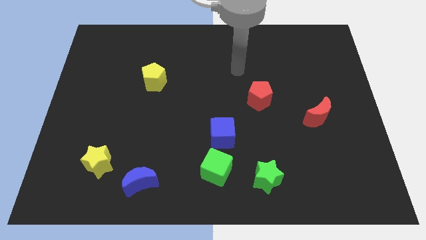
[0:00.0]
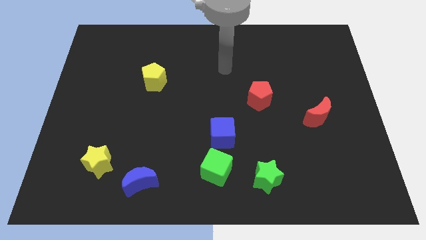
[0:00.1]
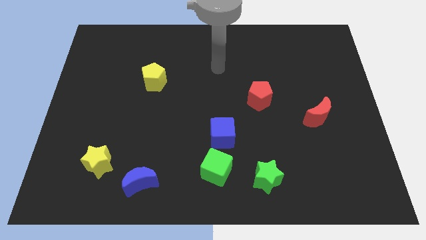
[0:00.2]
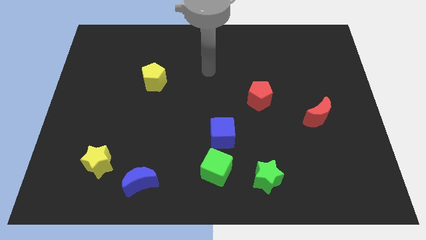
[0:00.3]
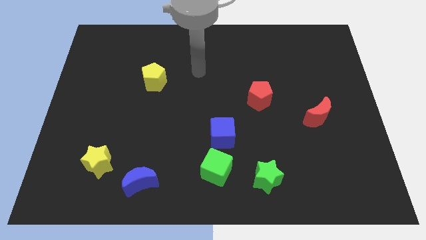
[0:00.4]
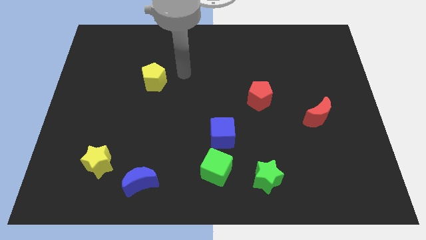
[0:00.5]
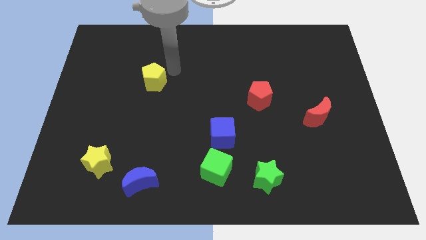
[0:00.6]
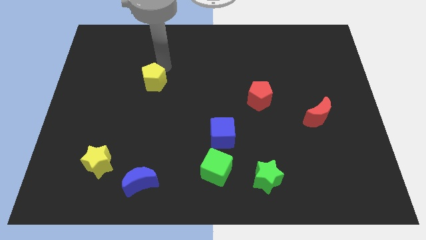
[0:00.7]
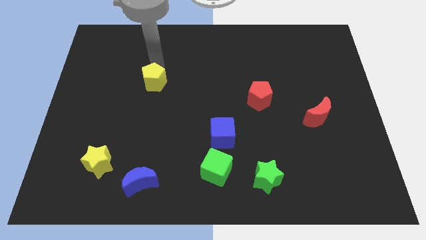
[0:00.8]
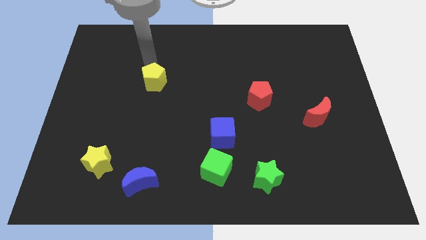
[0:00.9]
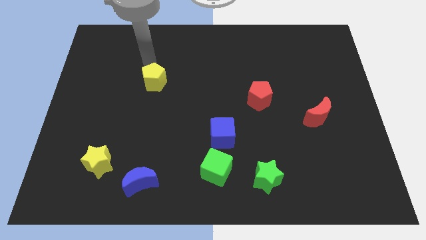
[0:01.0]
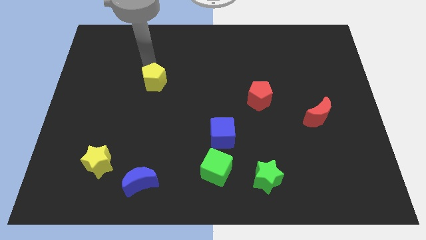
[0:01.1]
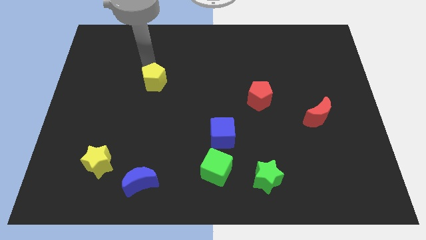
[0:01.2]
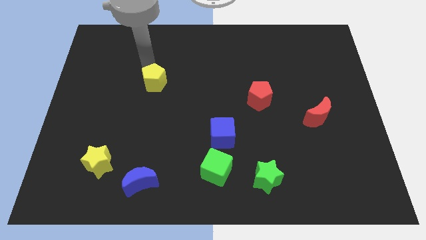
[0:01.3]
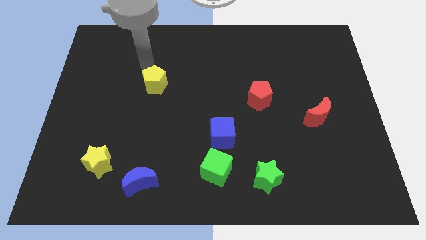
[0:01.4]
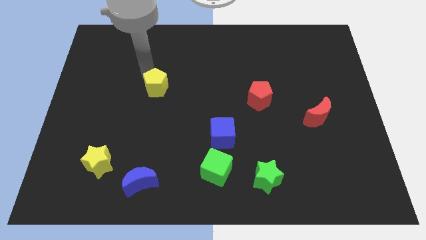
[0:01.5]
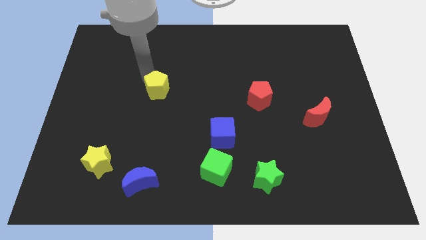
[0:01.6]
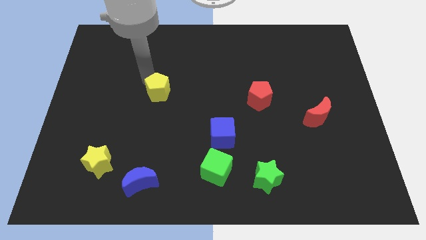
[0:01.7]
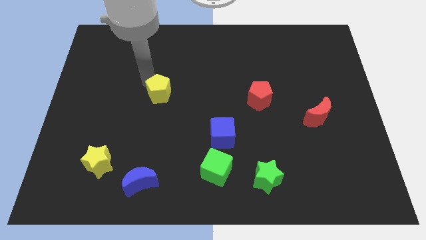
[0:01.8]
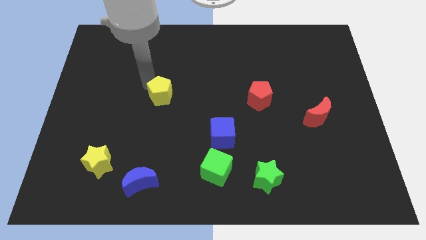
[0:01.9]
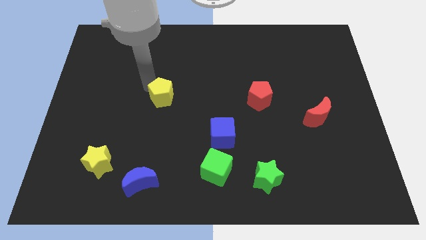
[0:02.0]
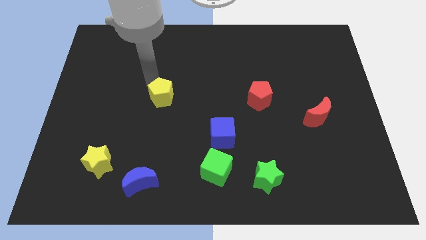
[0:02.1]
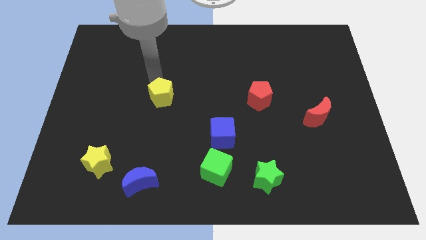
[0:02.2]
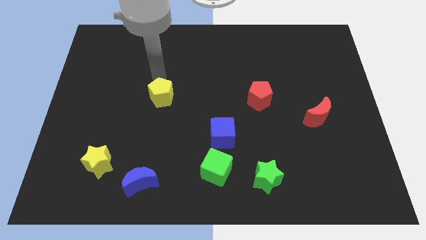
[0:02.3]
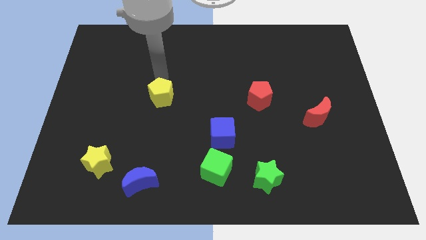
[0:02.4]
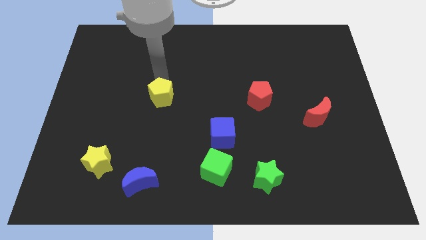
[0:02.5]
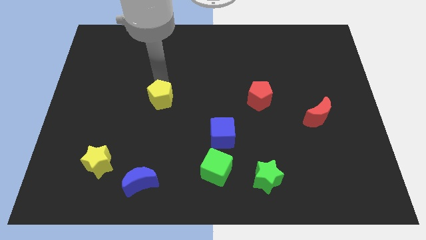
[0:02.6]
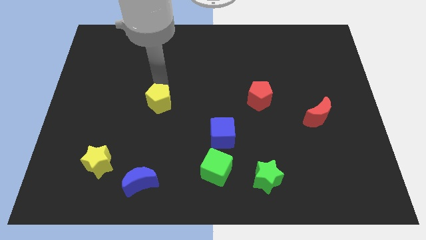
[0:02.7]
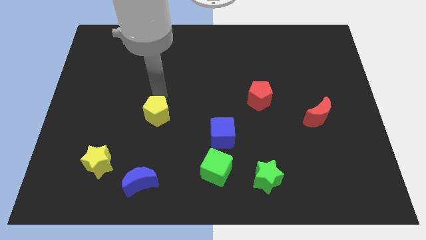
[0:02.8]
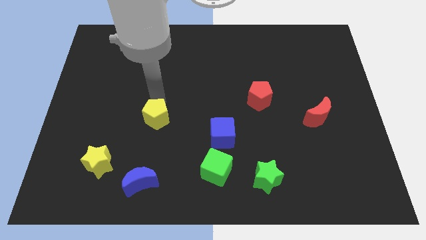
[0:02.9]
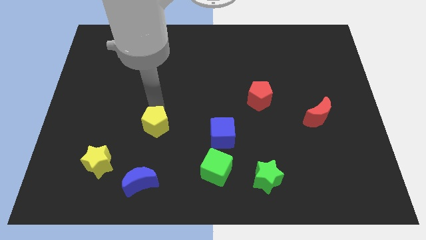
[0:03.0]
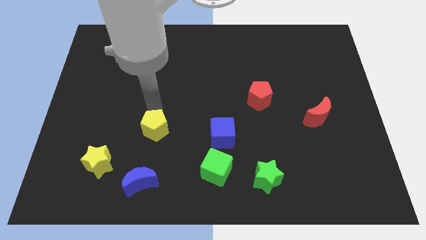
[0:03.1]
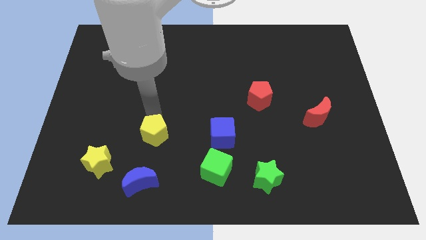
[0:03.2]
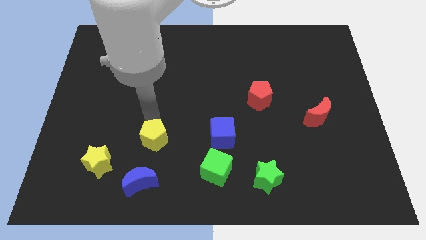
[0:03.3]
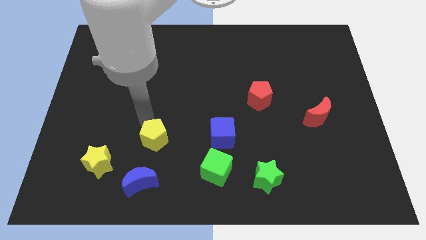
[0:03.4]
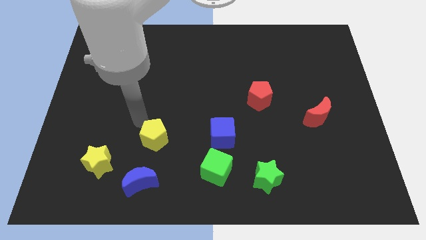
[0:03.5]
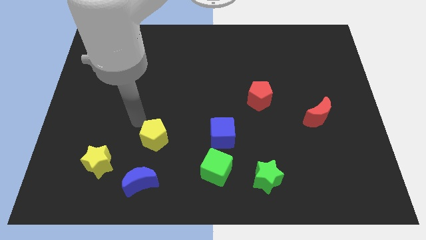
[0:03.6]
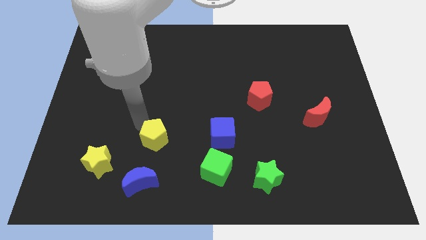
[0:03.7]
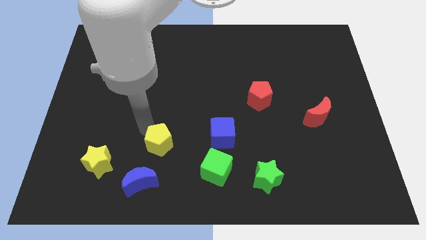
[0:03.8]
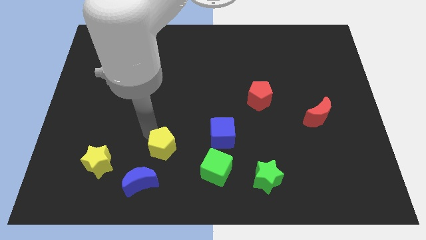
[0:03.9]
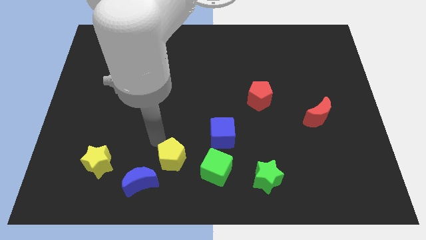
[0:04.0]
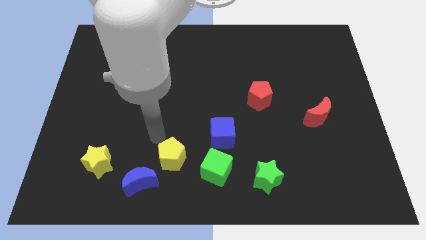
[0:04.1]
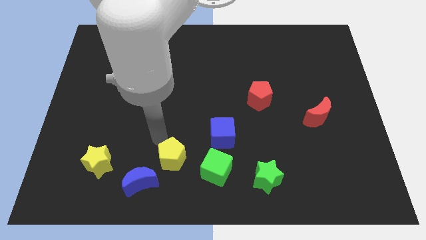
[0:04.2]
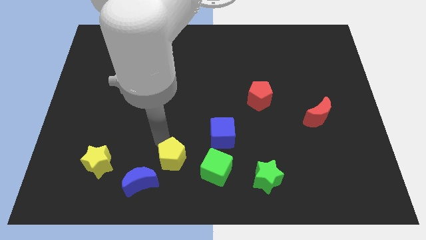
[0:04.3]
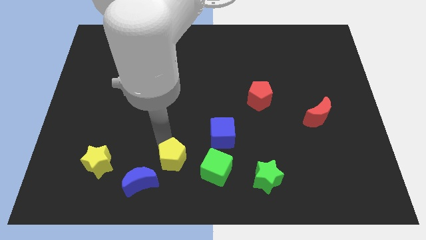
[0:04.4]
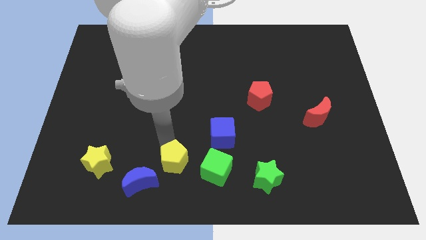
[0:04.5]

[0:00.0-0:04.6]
slide the yellow pentagon just right of the blue moon

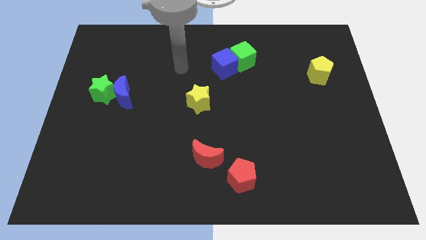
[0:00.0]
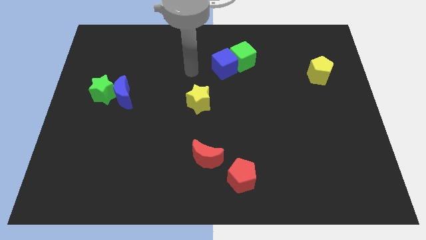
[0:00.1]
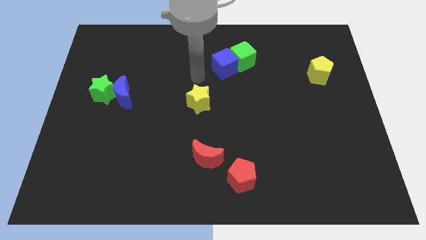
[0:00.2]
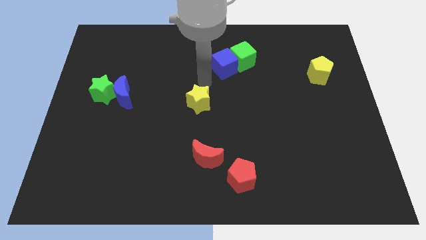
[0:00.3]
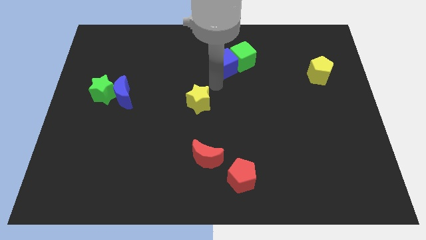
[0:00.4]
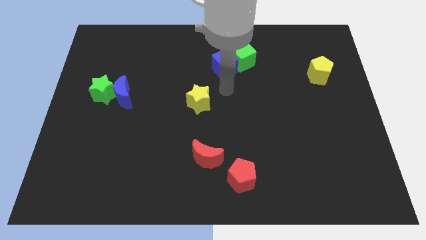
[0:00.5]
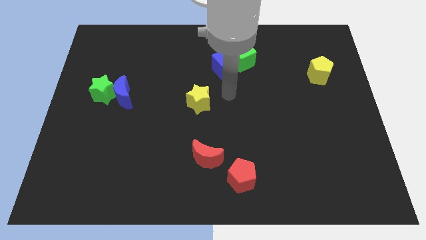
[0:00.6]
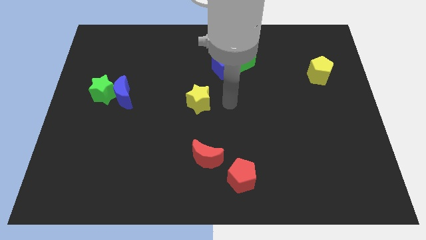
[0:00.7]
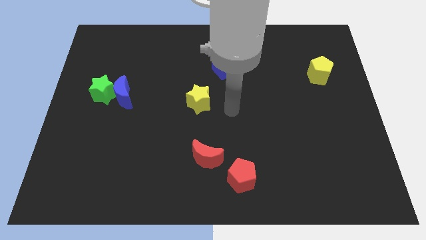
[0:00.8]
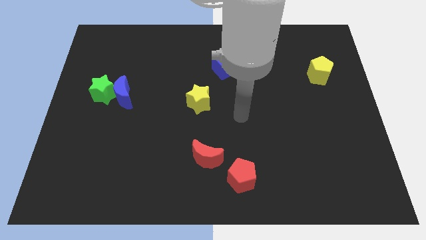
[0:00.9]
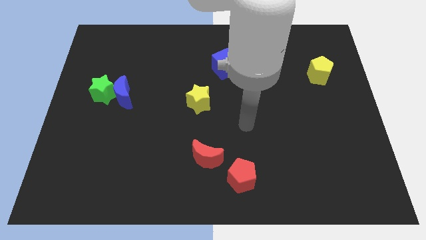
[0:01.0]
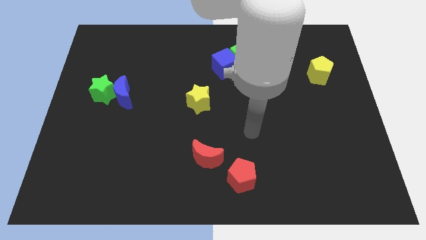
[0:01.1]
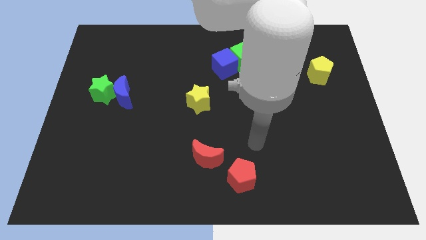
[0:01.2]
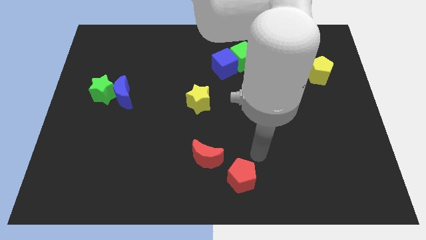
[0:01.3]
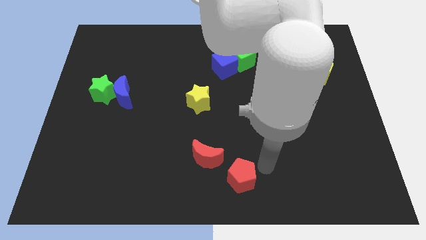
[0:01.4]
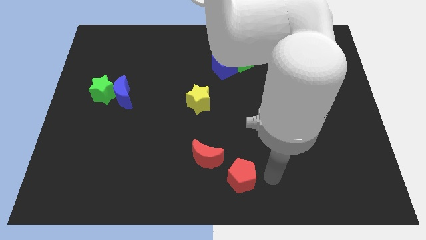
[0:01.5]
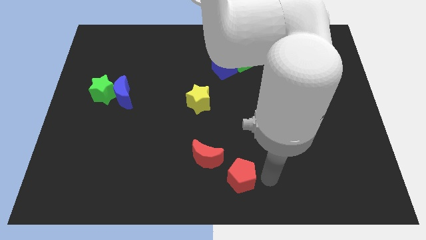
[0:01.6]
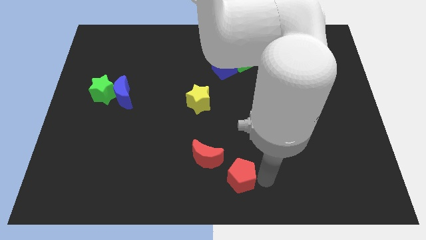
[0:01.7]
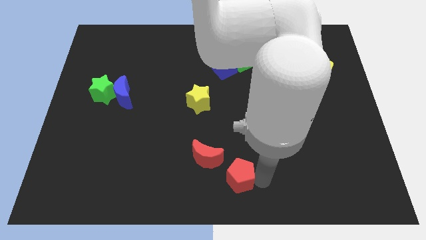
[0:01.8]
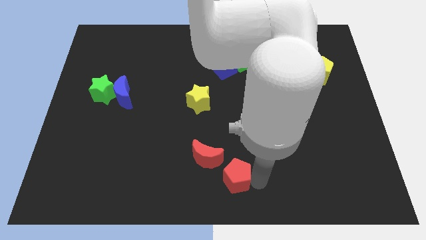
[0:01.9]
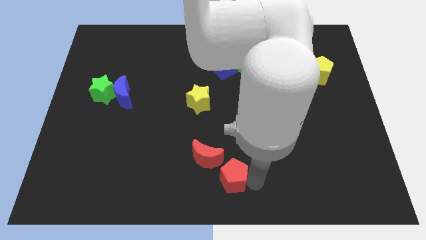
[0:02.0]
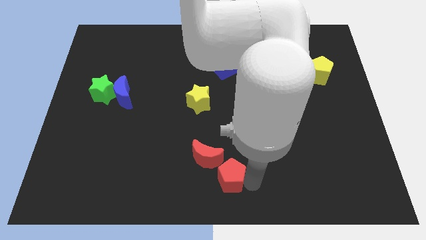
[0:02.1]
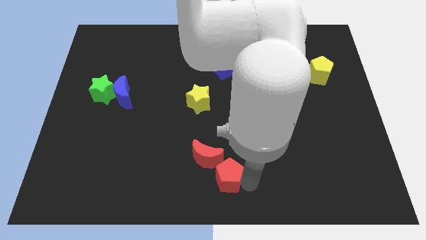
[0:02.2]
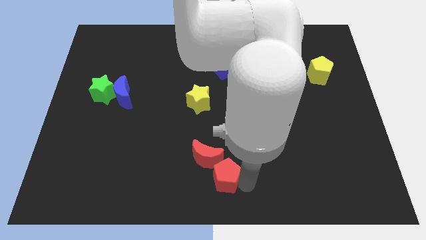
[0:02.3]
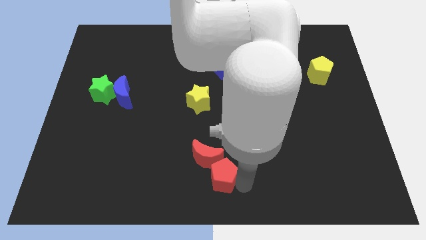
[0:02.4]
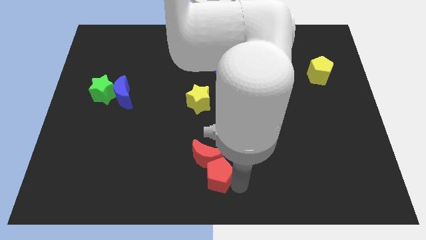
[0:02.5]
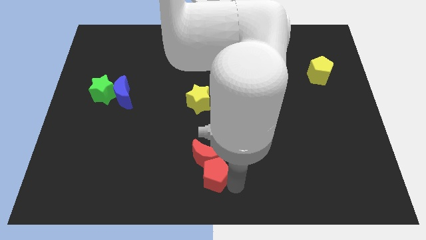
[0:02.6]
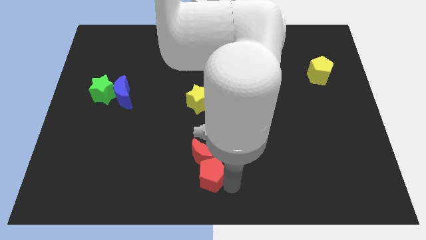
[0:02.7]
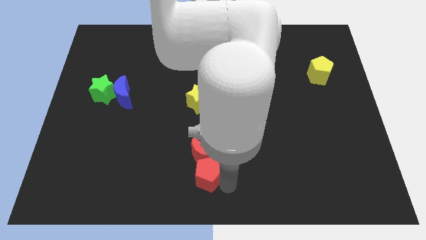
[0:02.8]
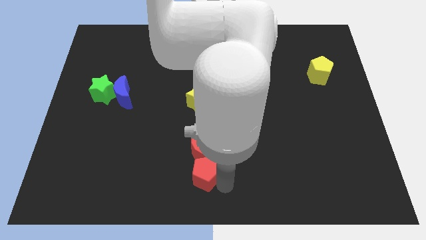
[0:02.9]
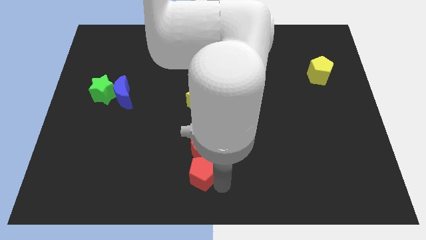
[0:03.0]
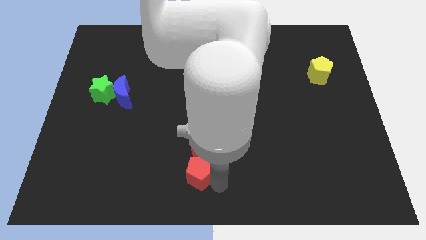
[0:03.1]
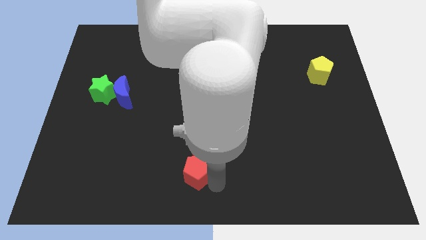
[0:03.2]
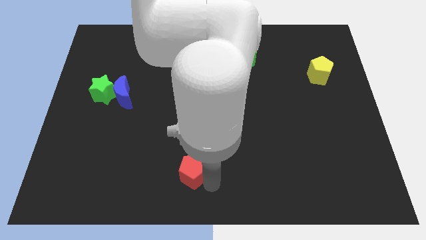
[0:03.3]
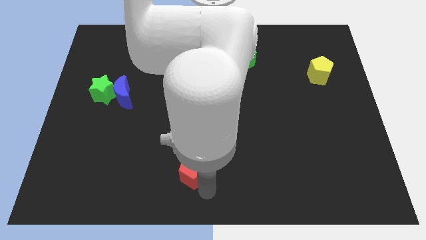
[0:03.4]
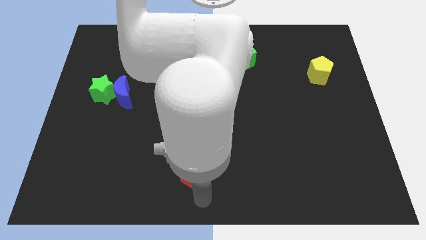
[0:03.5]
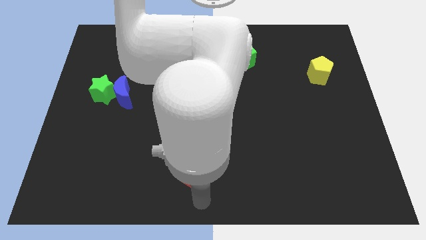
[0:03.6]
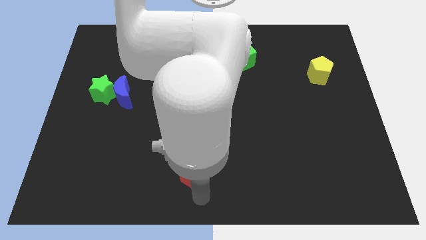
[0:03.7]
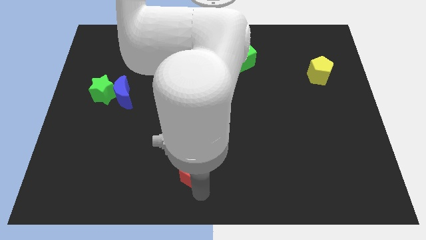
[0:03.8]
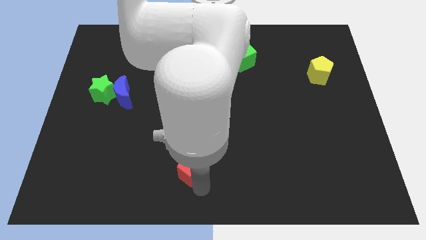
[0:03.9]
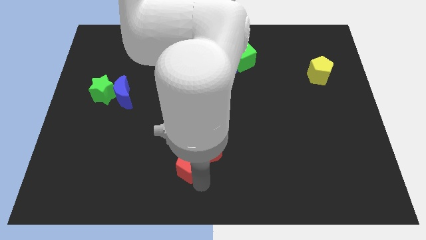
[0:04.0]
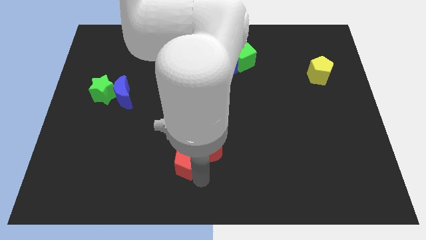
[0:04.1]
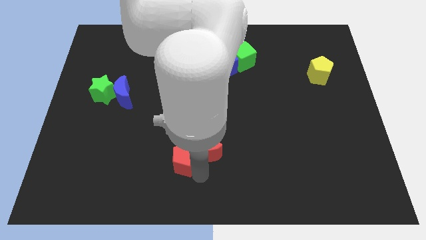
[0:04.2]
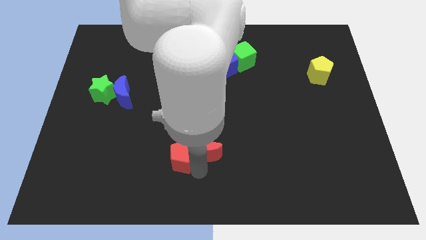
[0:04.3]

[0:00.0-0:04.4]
push the red pentagon to the top left of the red moon
